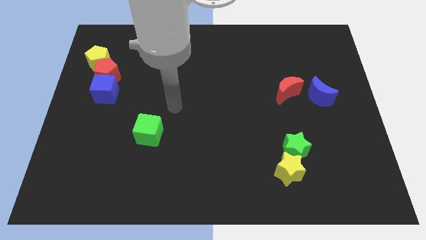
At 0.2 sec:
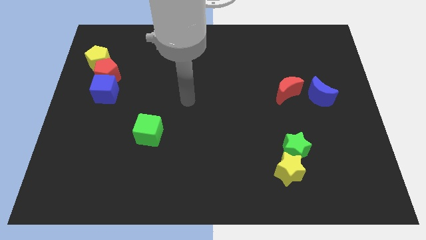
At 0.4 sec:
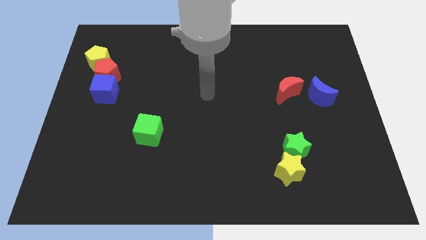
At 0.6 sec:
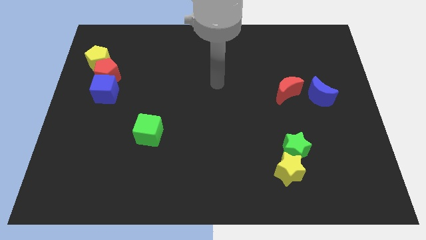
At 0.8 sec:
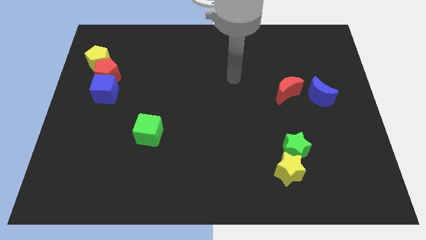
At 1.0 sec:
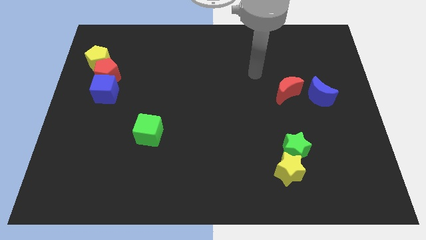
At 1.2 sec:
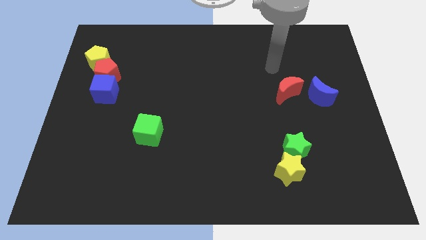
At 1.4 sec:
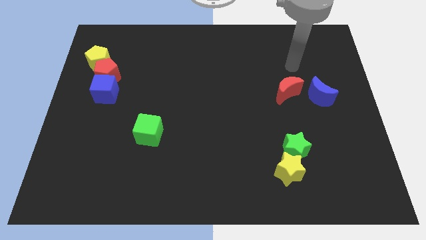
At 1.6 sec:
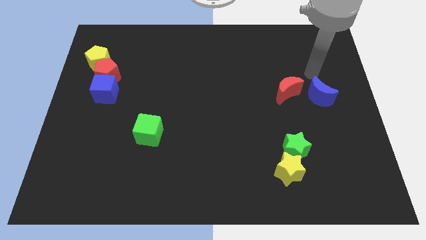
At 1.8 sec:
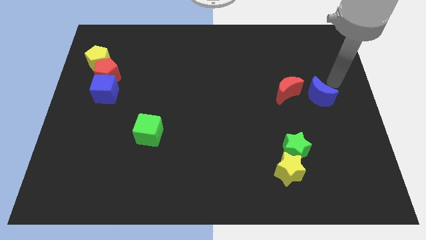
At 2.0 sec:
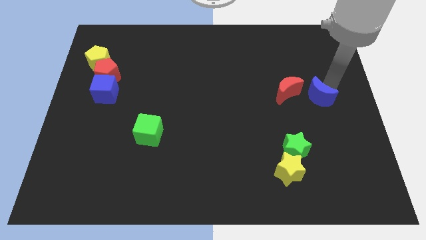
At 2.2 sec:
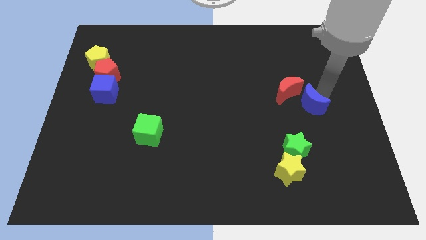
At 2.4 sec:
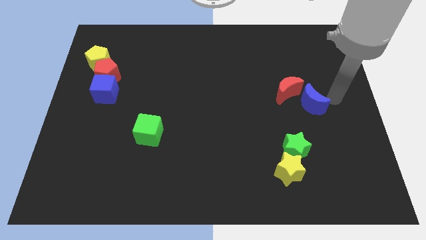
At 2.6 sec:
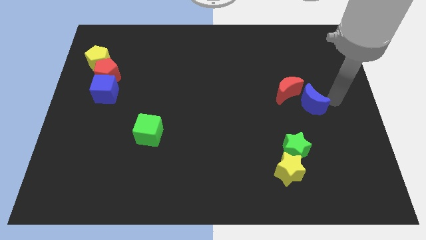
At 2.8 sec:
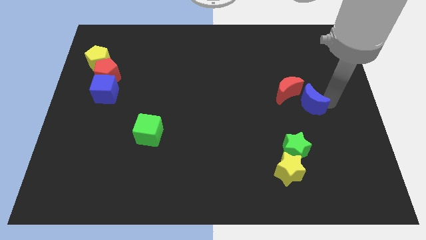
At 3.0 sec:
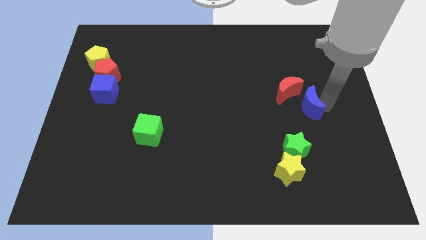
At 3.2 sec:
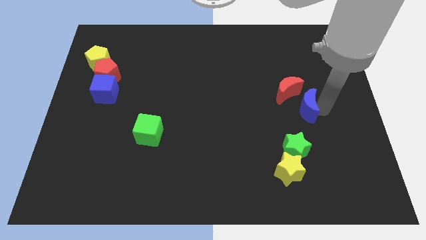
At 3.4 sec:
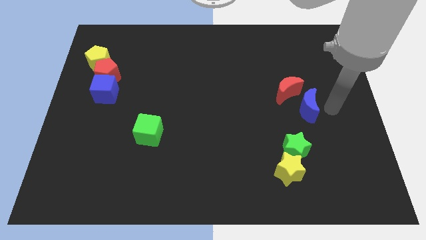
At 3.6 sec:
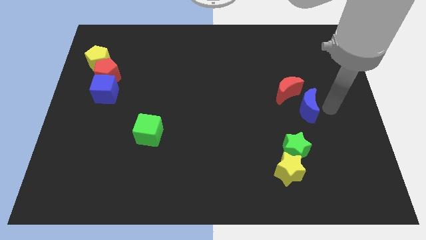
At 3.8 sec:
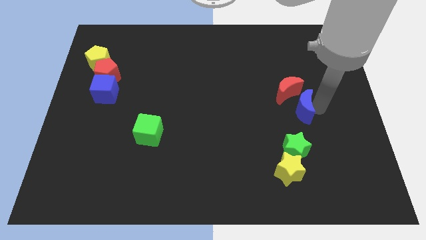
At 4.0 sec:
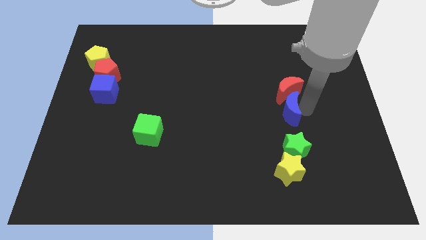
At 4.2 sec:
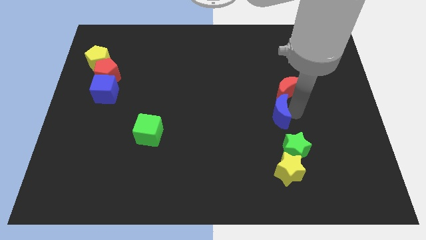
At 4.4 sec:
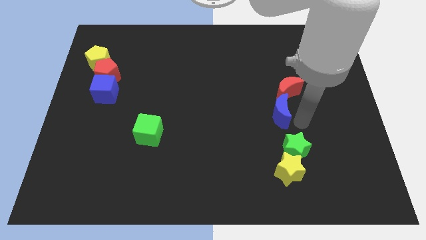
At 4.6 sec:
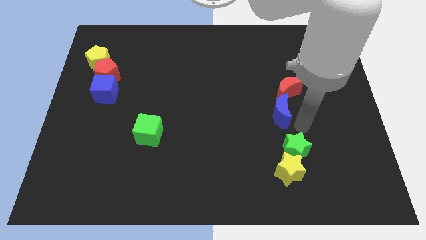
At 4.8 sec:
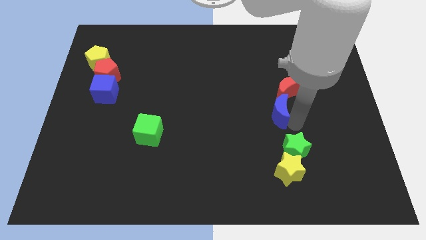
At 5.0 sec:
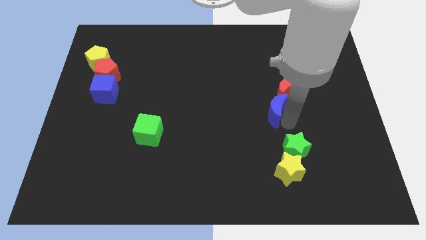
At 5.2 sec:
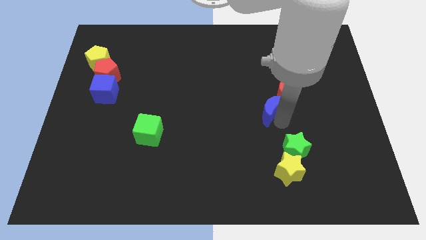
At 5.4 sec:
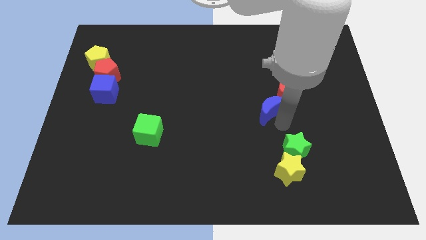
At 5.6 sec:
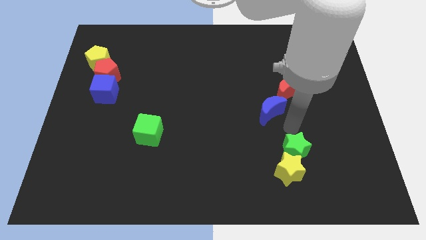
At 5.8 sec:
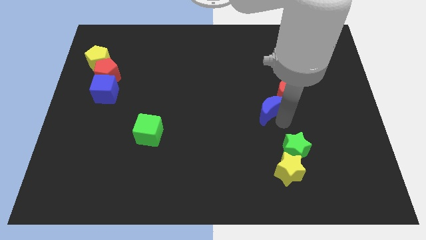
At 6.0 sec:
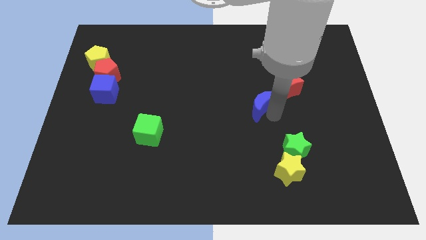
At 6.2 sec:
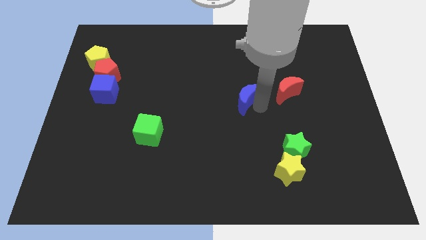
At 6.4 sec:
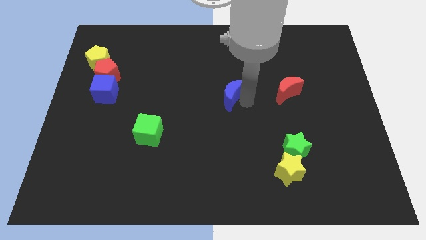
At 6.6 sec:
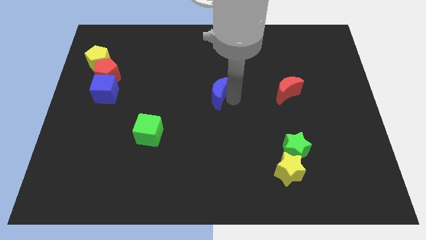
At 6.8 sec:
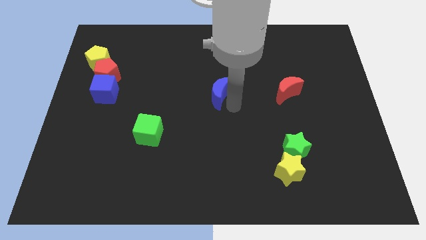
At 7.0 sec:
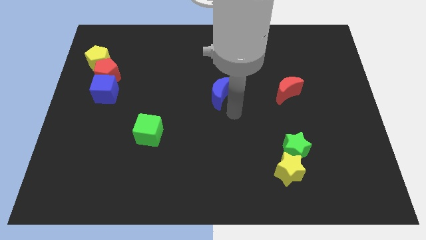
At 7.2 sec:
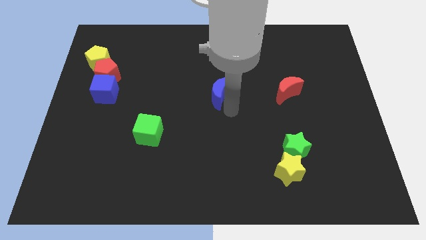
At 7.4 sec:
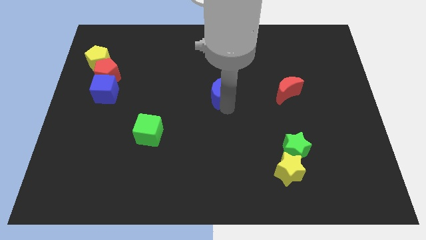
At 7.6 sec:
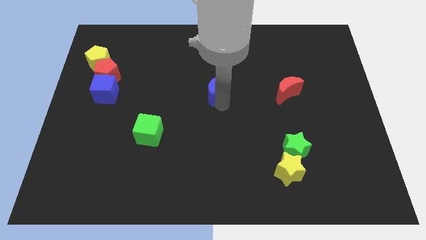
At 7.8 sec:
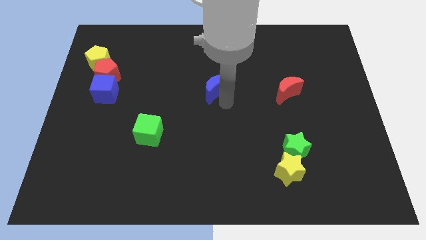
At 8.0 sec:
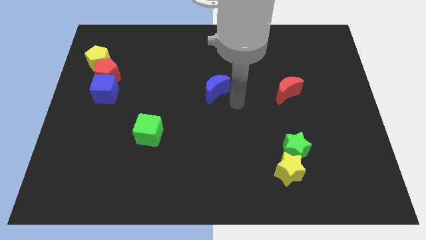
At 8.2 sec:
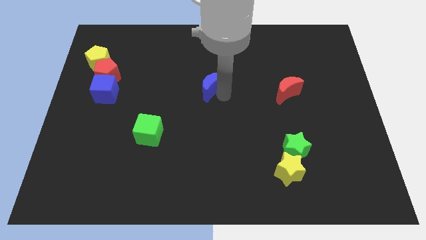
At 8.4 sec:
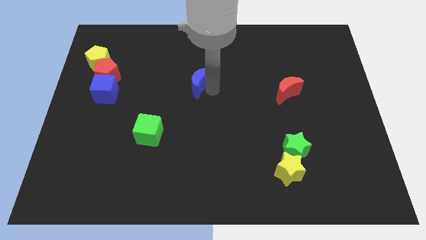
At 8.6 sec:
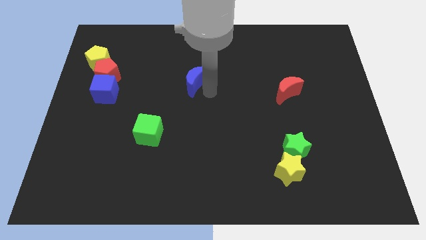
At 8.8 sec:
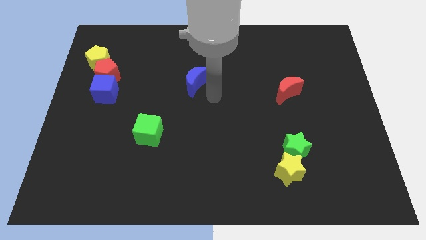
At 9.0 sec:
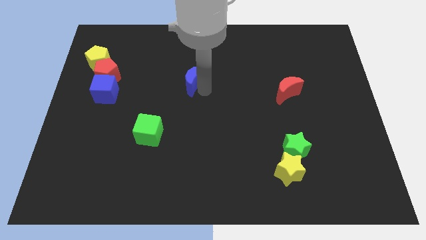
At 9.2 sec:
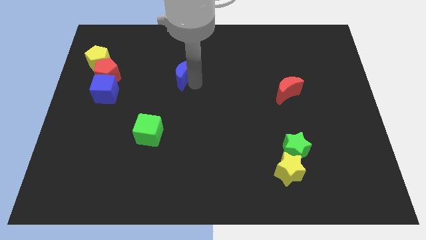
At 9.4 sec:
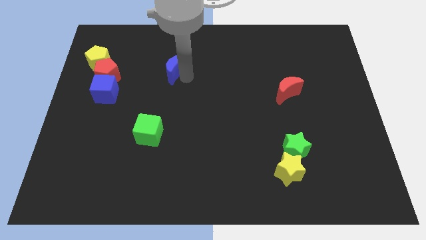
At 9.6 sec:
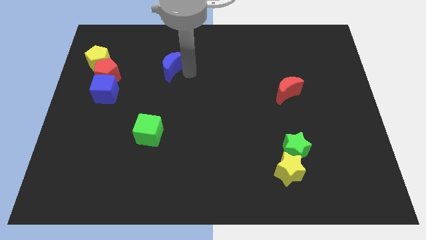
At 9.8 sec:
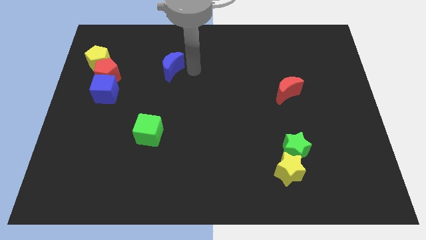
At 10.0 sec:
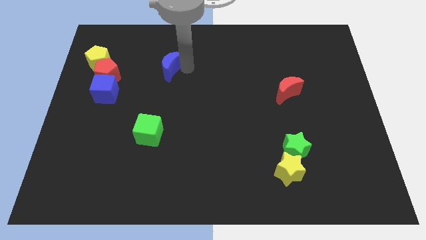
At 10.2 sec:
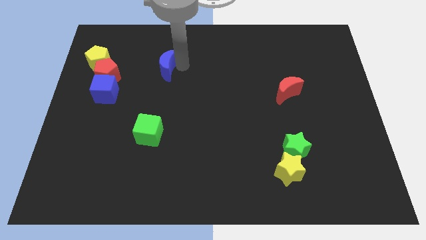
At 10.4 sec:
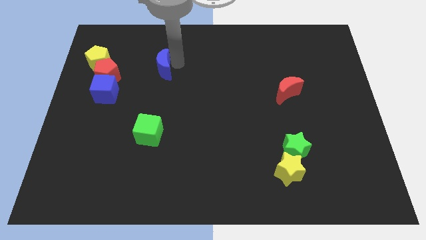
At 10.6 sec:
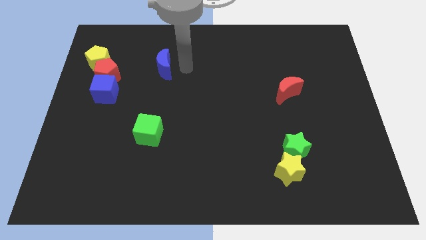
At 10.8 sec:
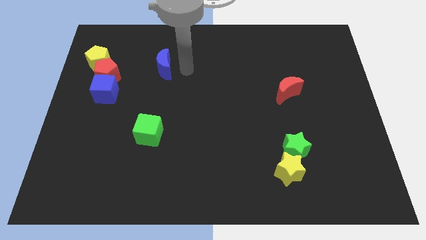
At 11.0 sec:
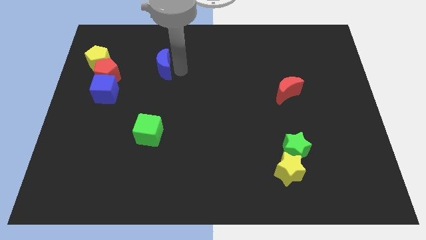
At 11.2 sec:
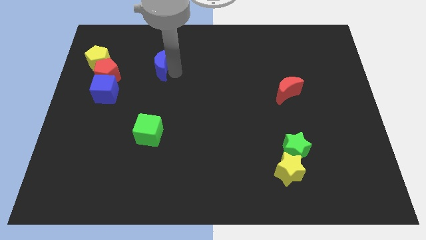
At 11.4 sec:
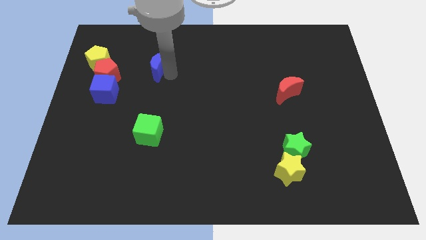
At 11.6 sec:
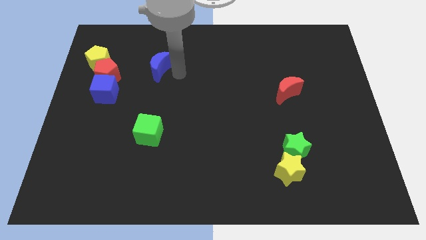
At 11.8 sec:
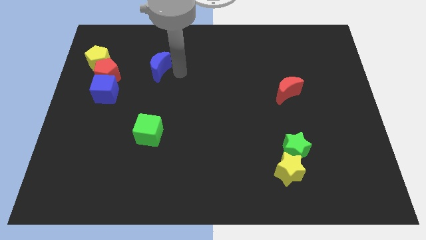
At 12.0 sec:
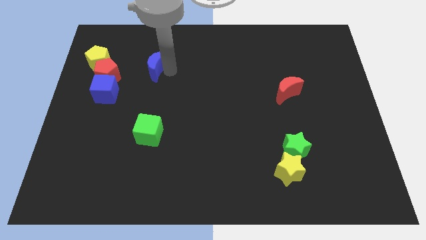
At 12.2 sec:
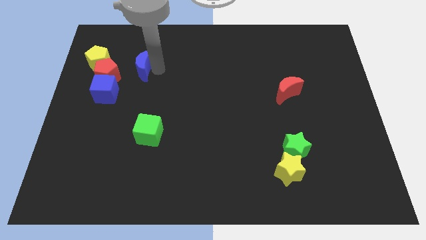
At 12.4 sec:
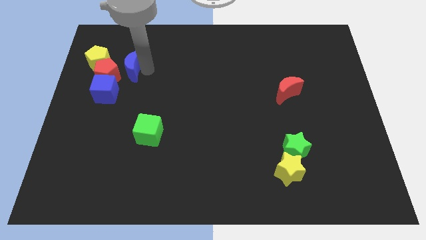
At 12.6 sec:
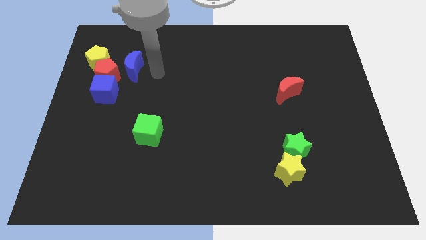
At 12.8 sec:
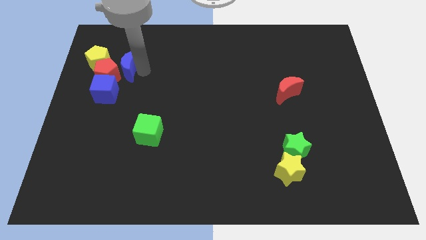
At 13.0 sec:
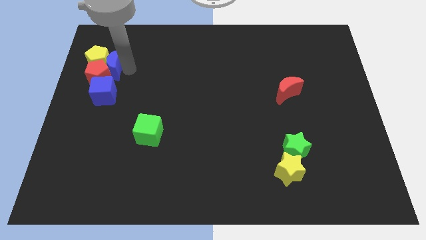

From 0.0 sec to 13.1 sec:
move the blue moon towards the yellow pentagon

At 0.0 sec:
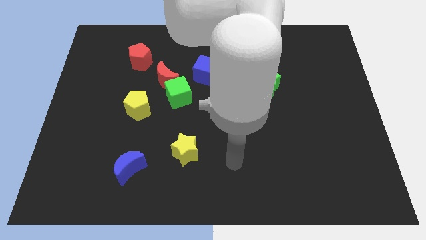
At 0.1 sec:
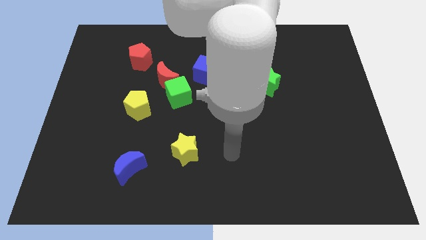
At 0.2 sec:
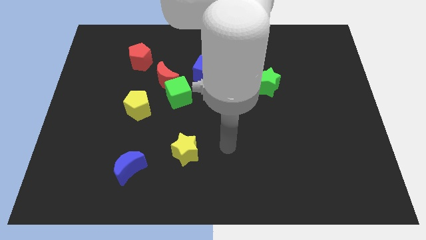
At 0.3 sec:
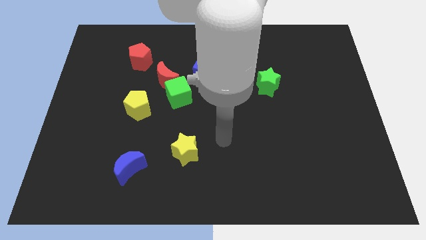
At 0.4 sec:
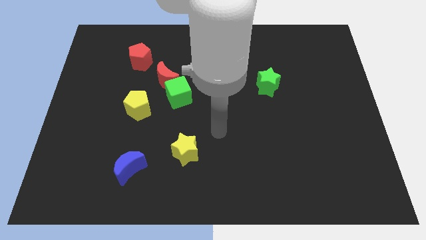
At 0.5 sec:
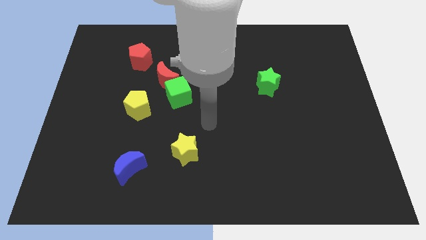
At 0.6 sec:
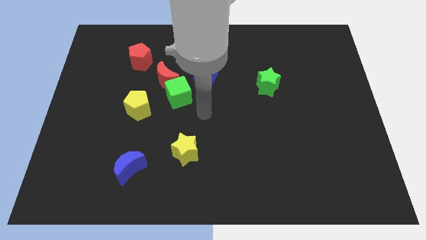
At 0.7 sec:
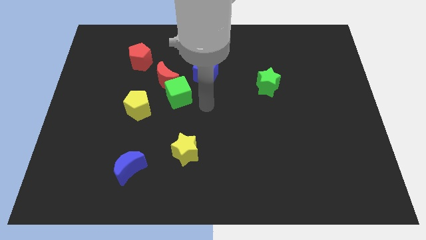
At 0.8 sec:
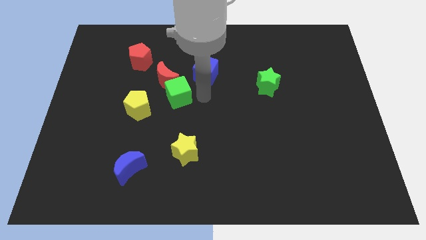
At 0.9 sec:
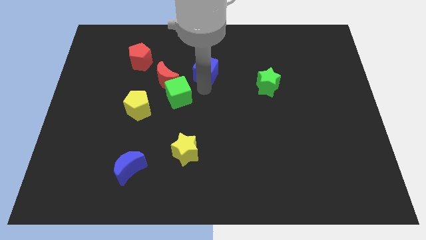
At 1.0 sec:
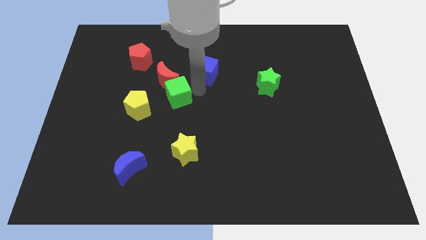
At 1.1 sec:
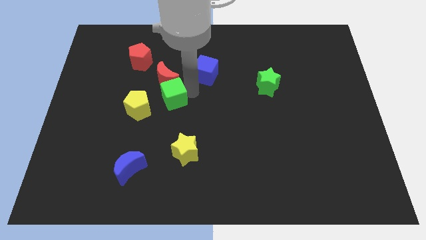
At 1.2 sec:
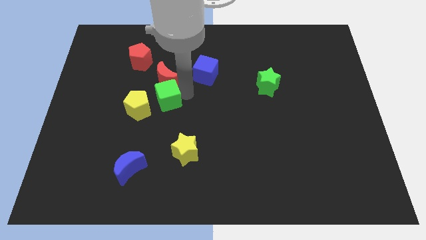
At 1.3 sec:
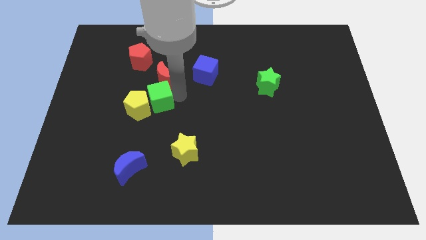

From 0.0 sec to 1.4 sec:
slide the green cube next to the yellow pentagon
